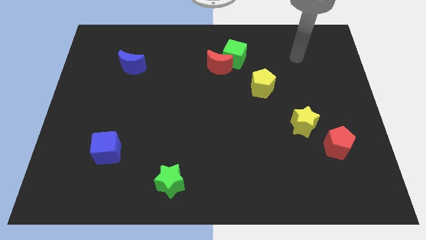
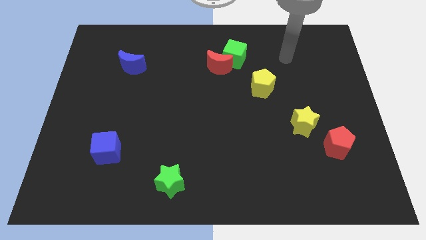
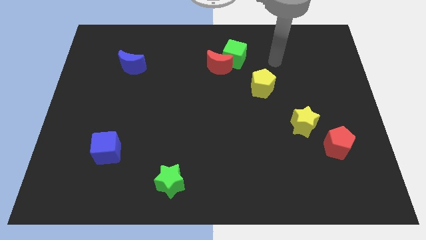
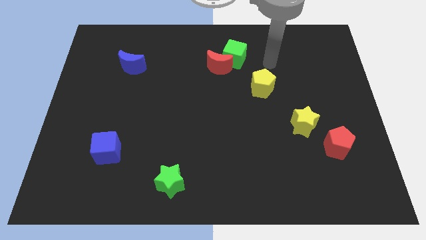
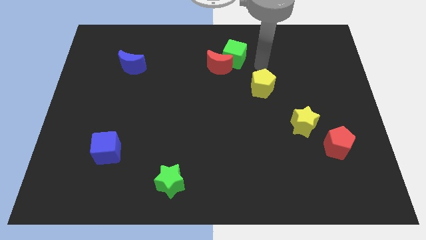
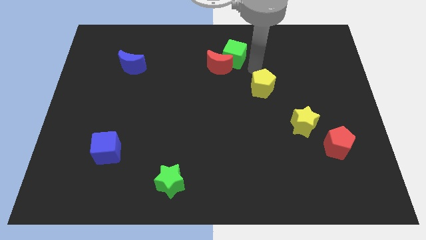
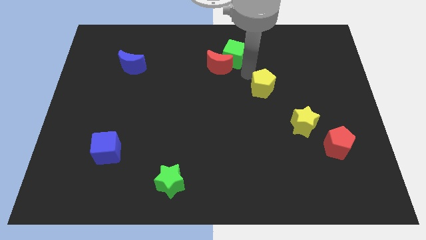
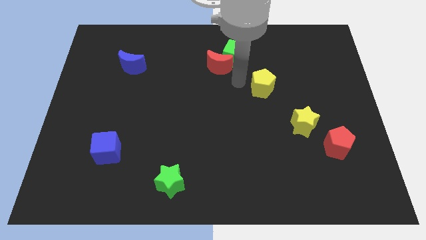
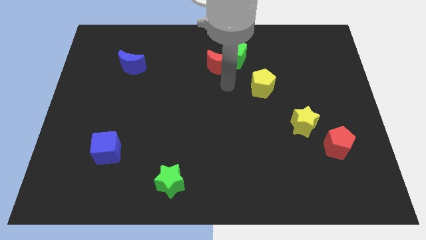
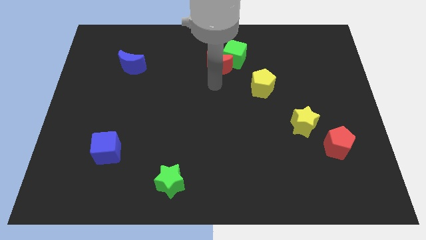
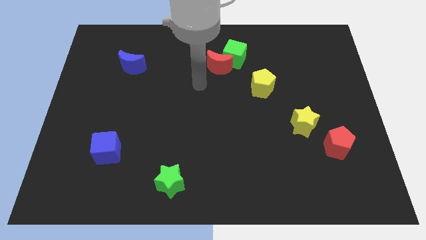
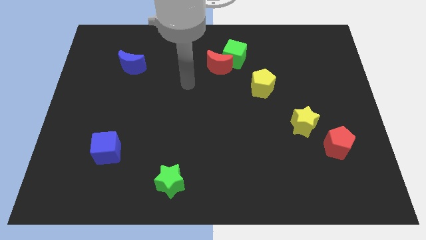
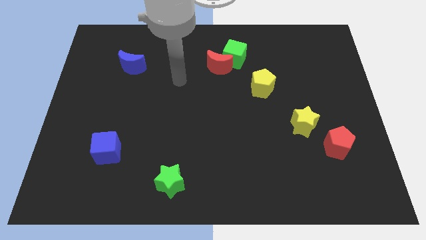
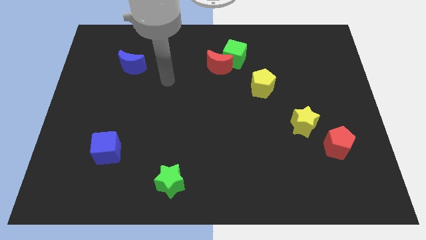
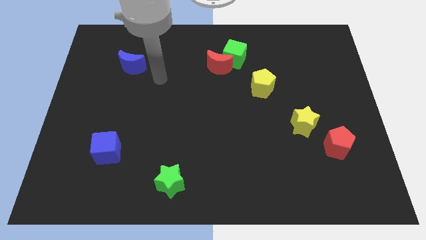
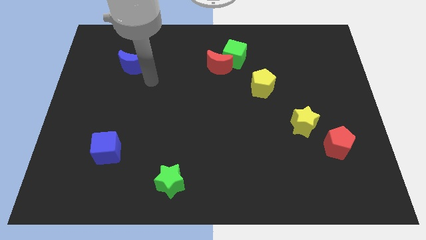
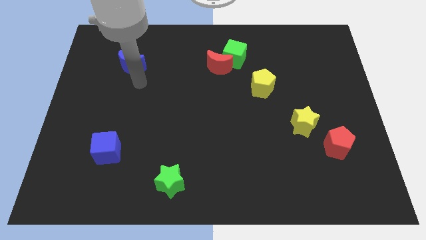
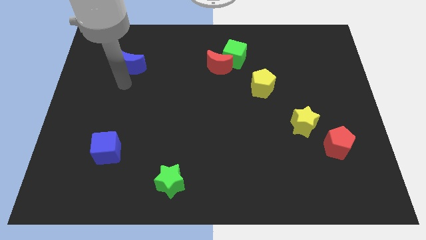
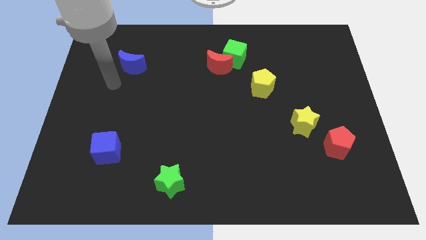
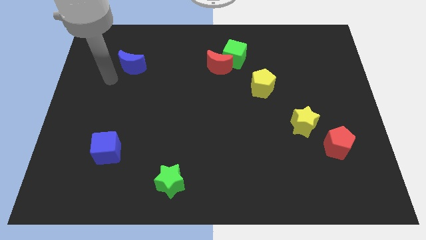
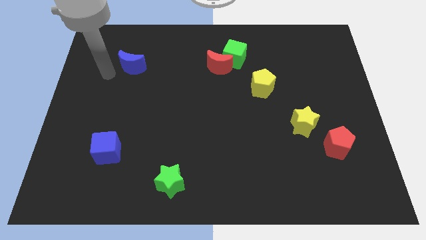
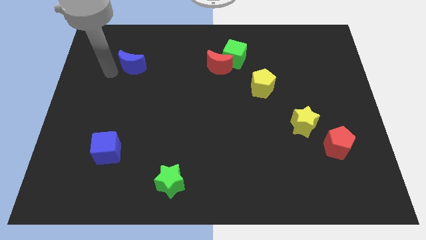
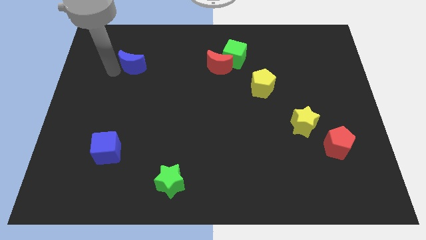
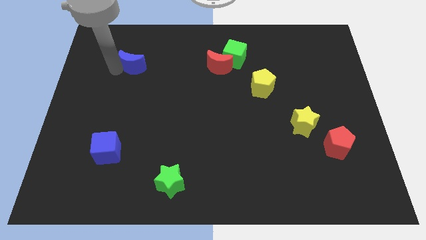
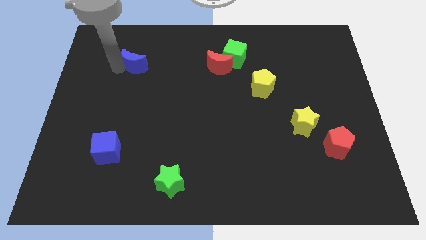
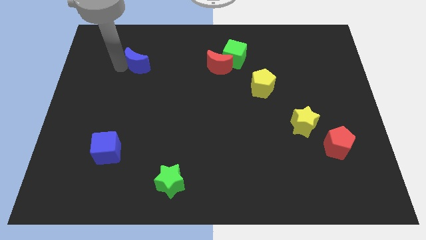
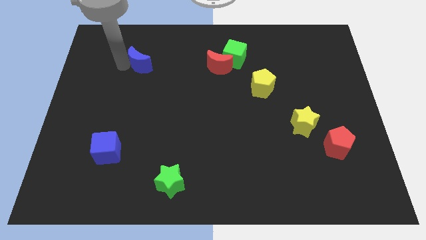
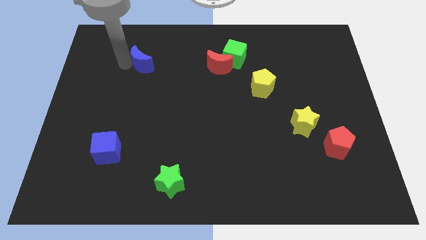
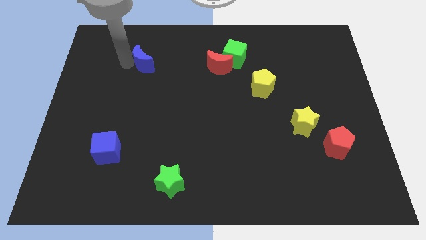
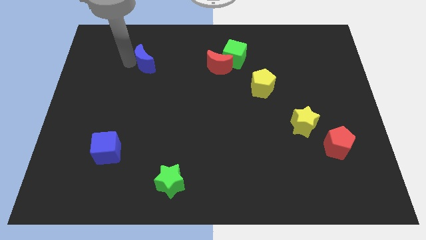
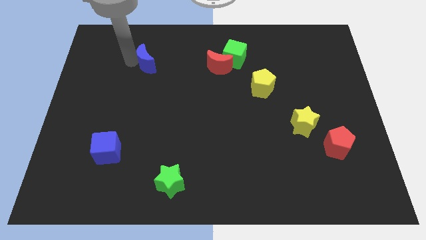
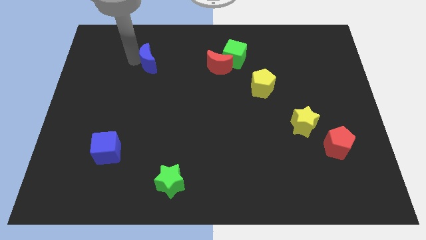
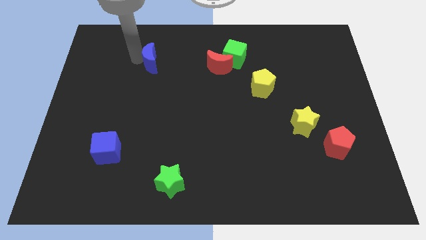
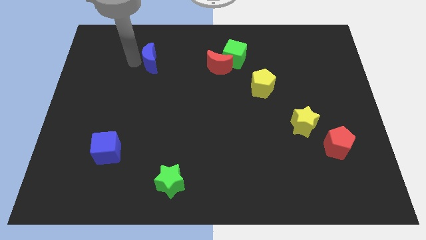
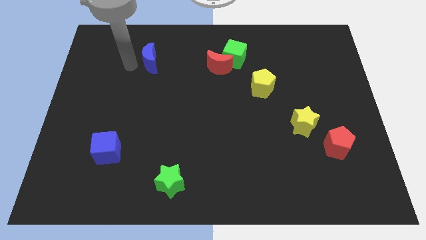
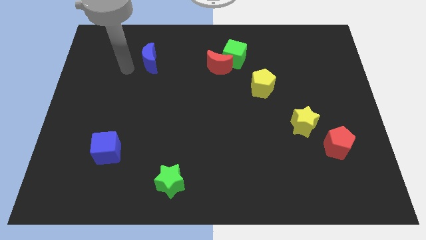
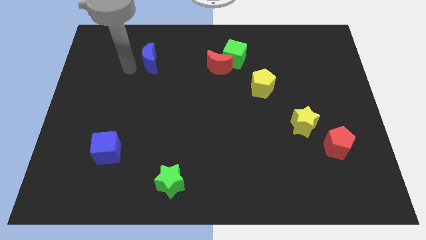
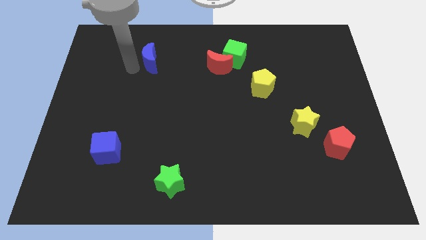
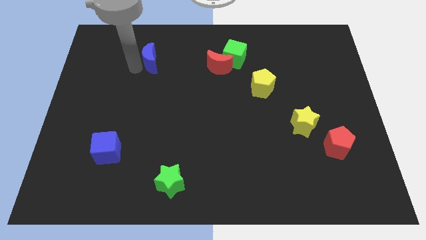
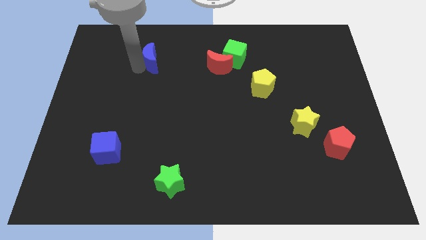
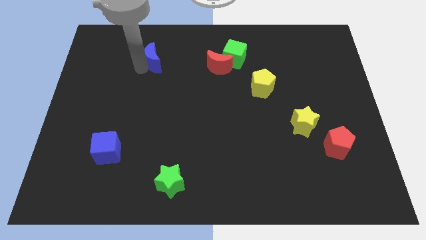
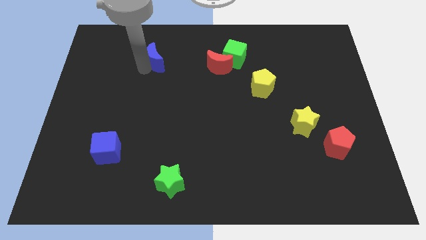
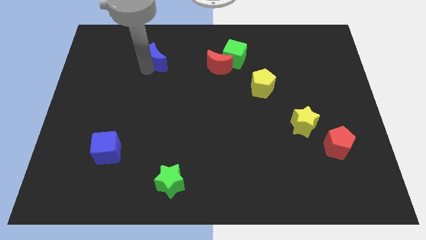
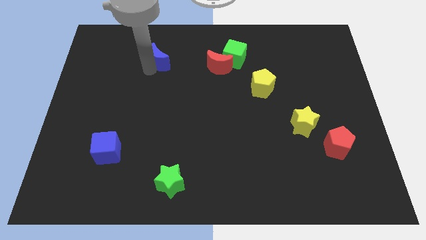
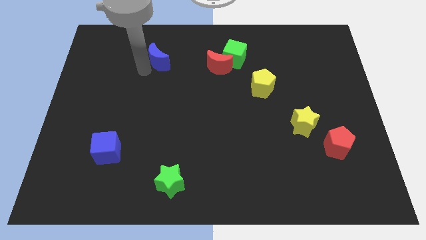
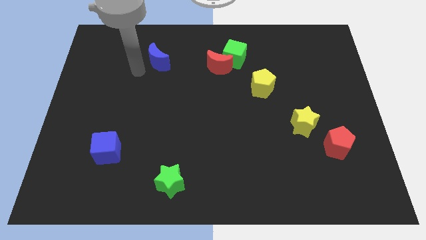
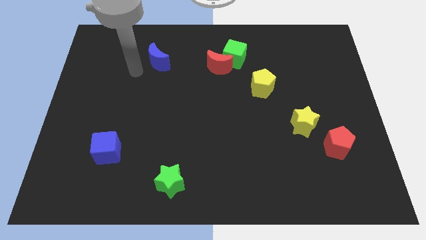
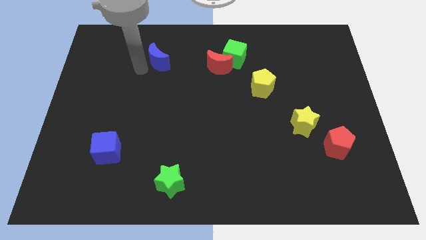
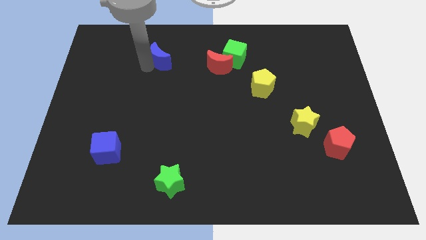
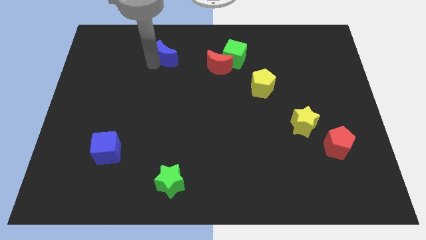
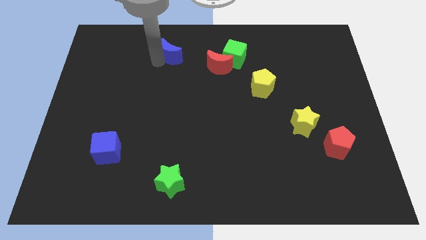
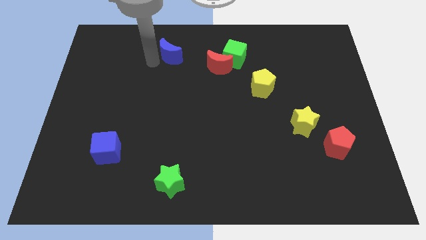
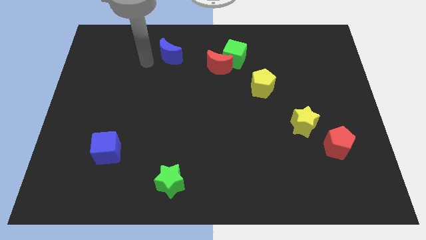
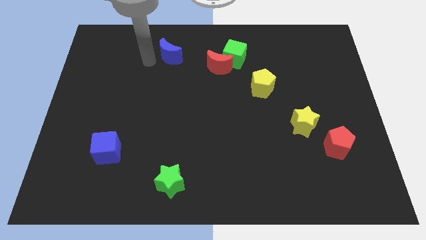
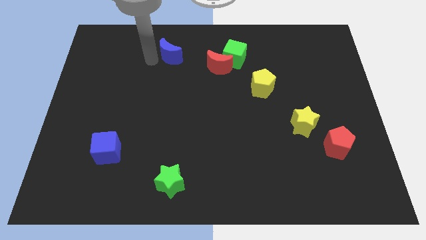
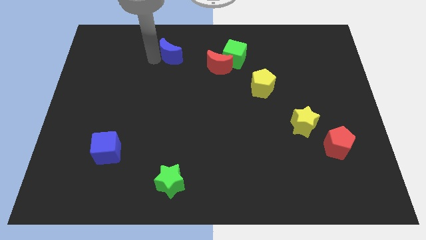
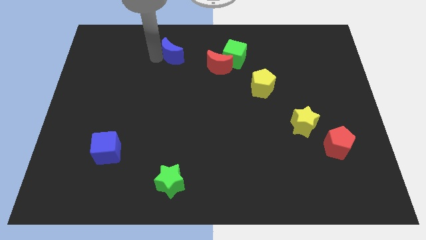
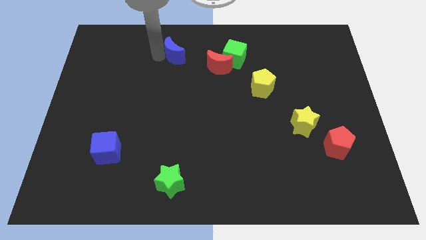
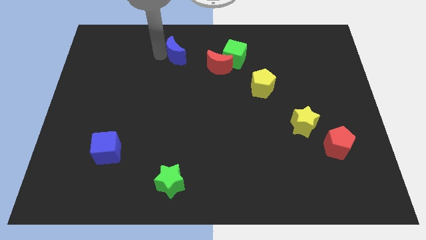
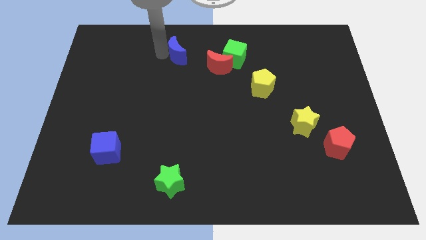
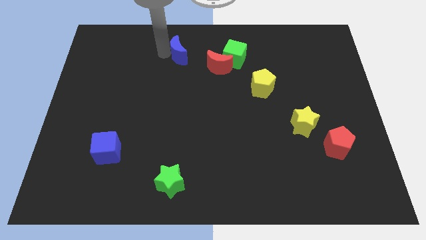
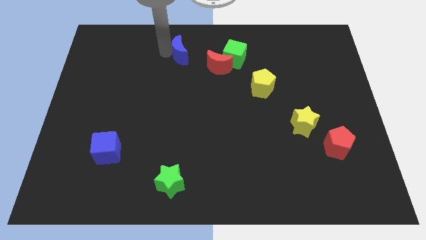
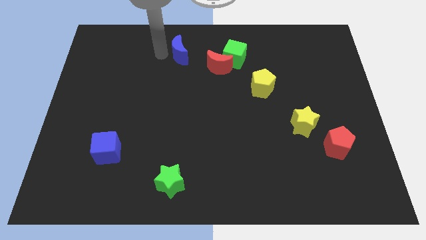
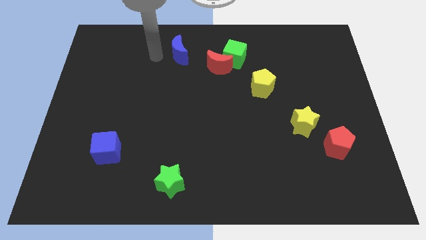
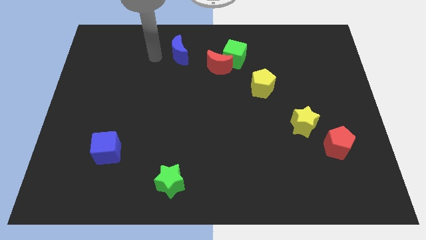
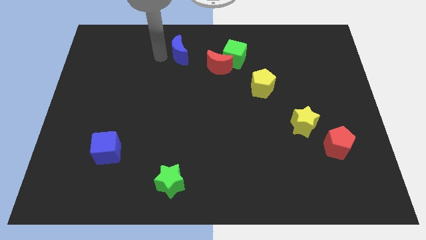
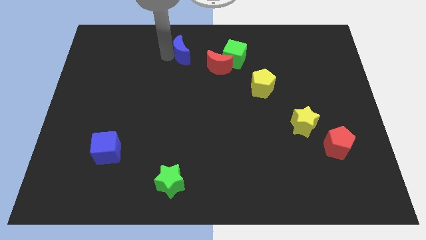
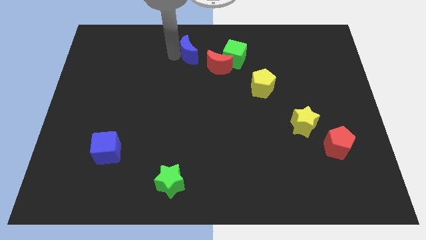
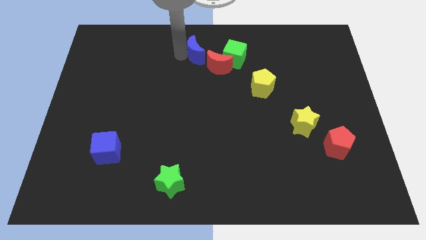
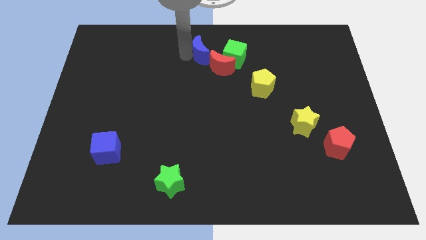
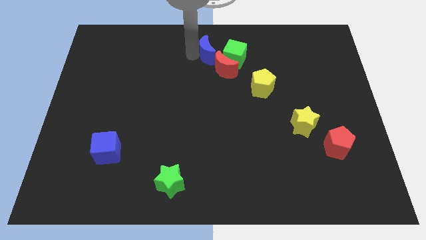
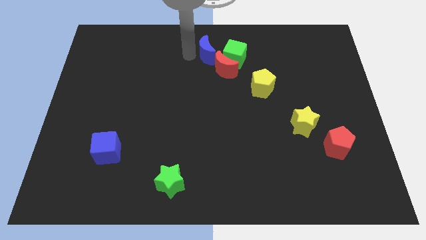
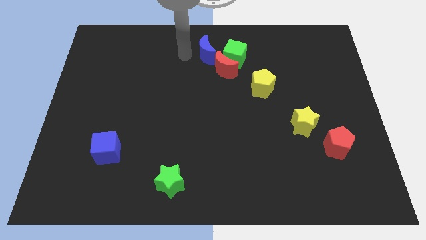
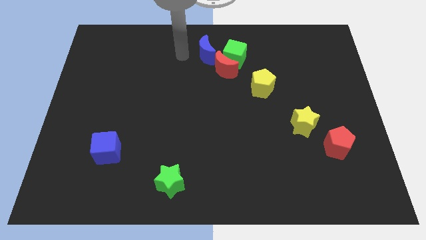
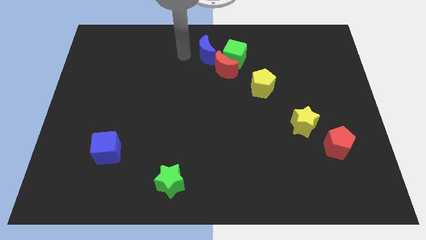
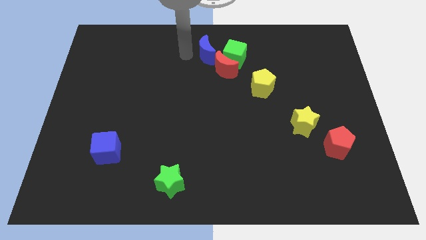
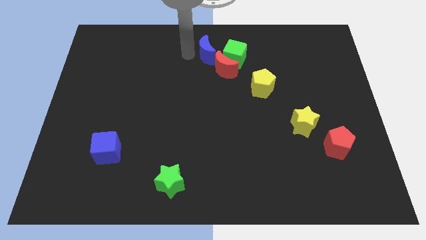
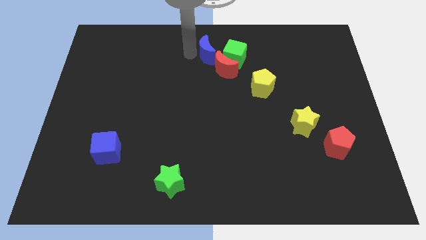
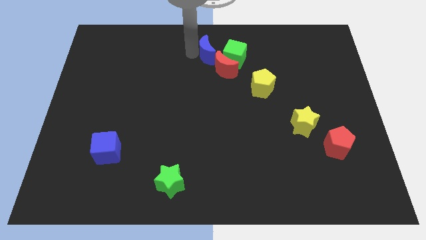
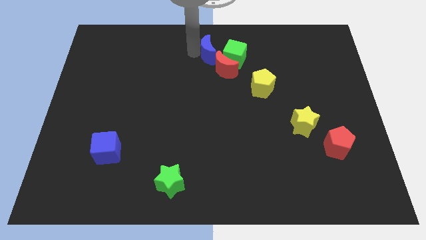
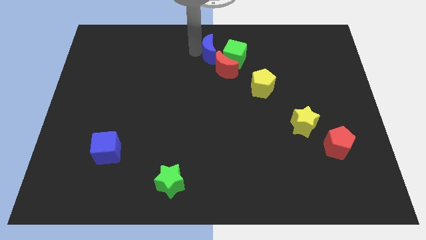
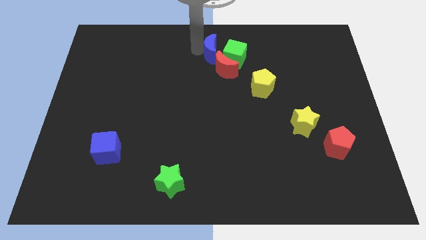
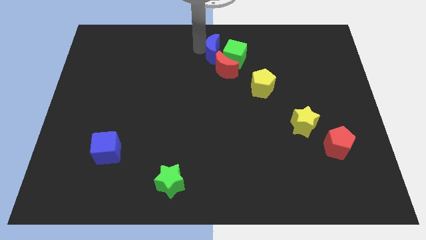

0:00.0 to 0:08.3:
push the blue moon towards the green cube
